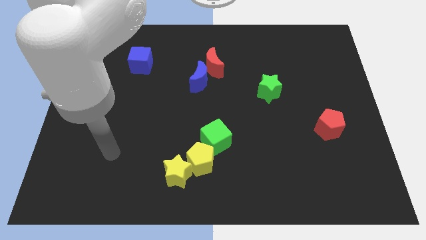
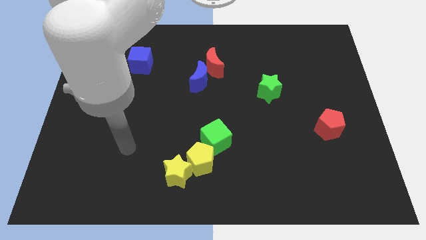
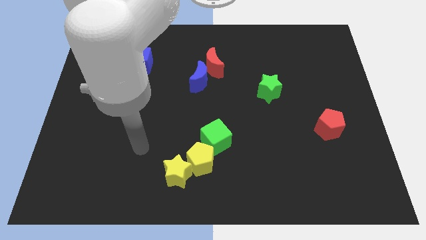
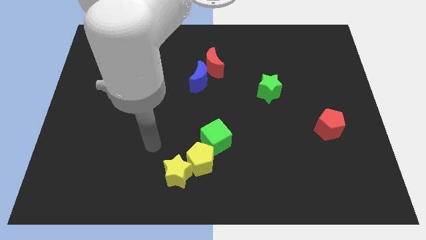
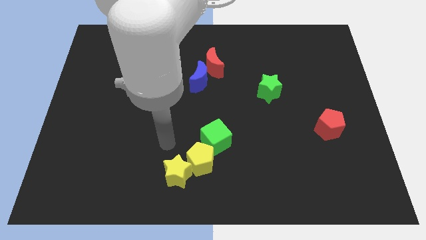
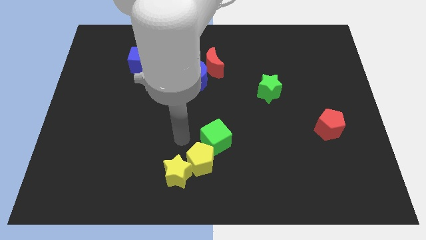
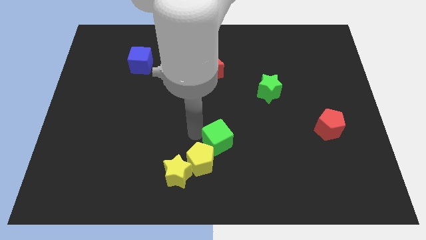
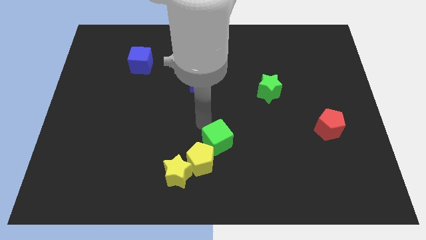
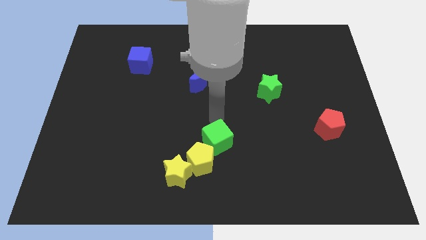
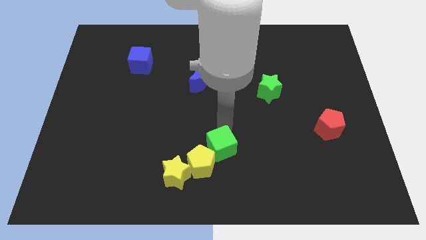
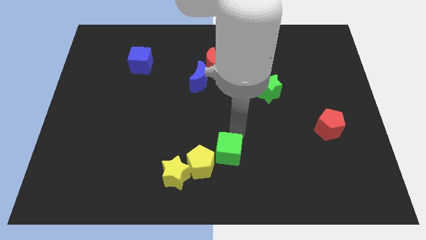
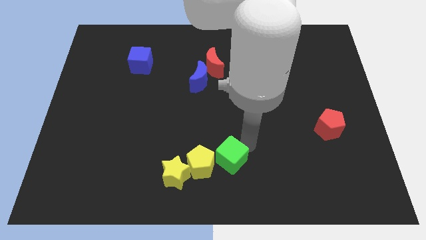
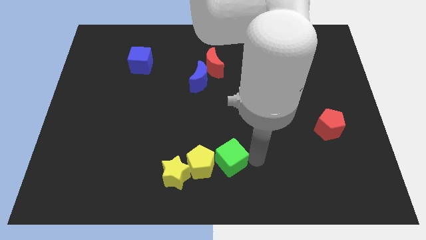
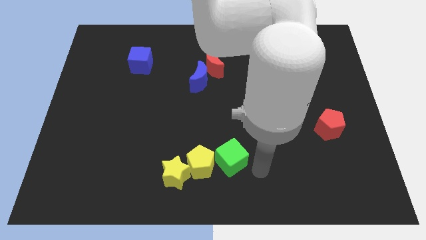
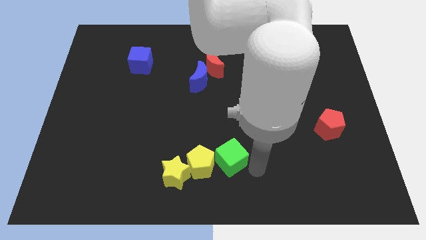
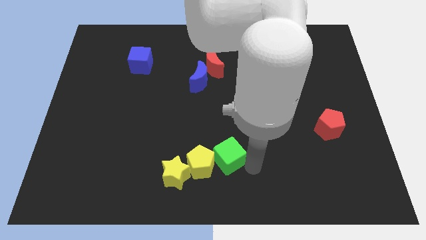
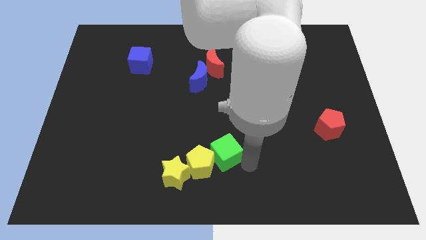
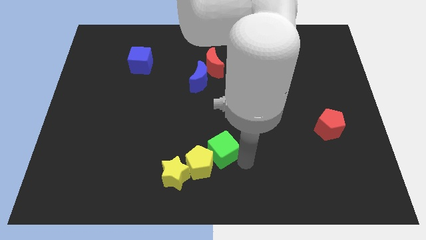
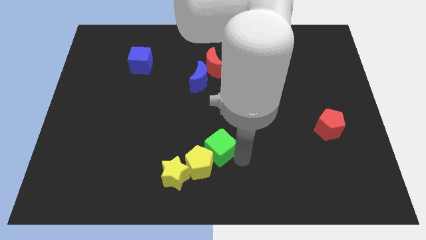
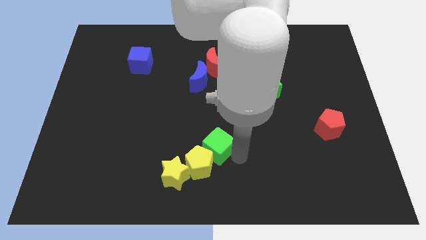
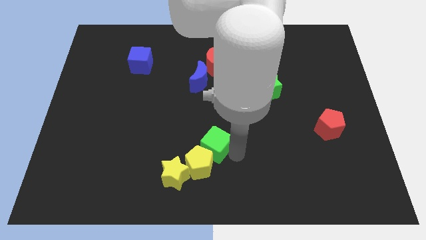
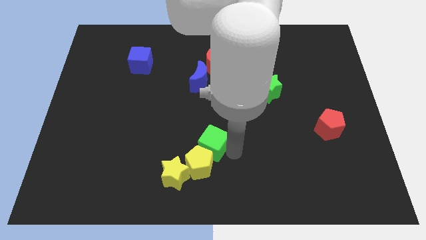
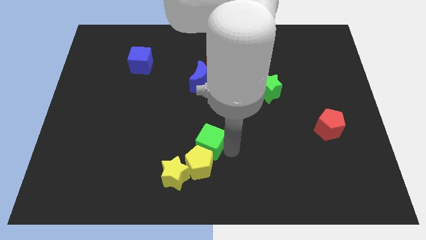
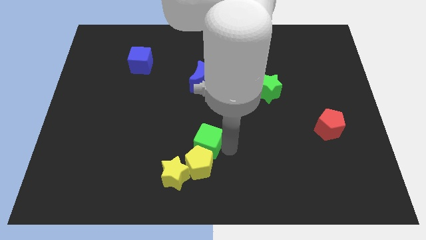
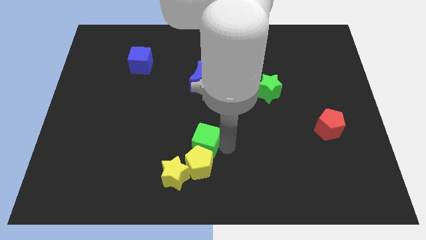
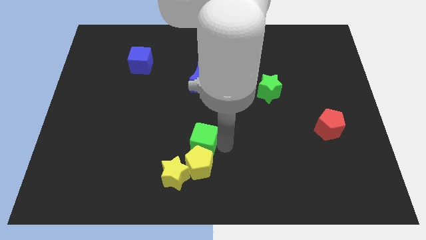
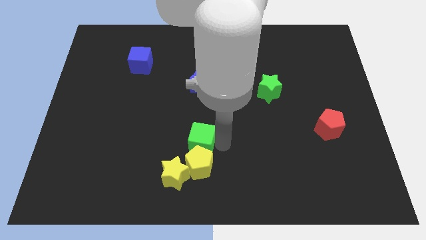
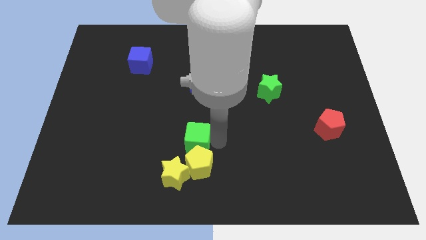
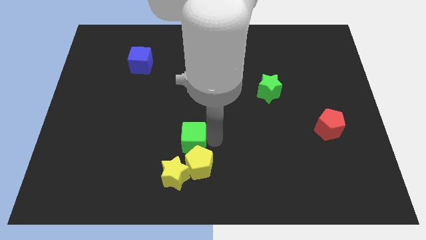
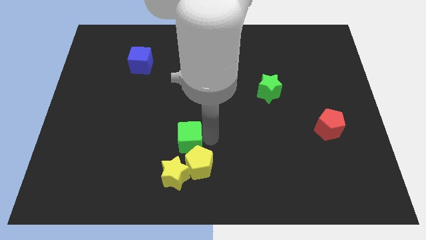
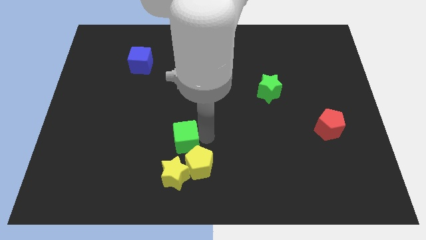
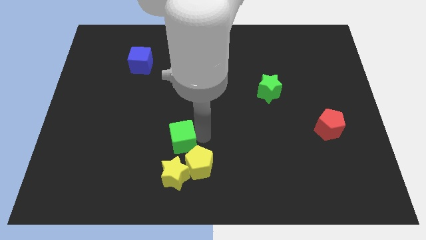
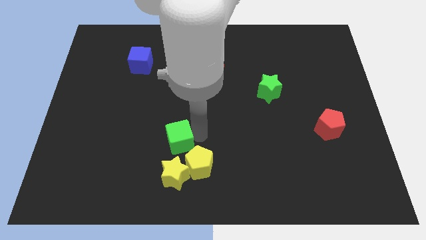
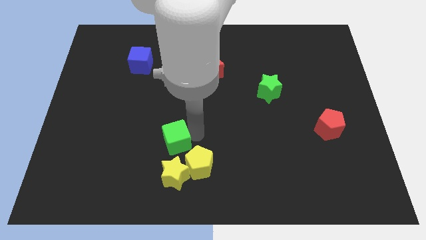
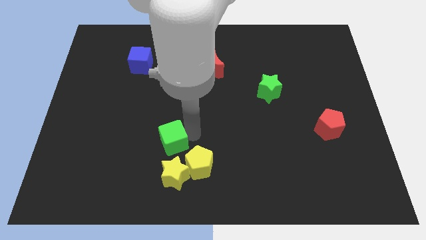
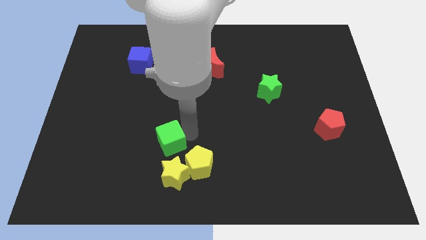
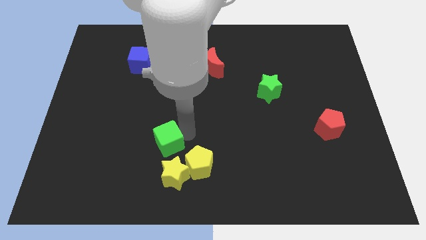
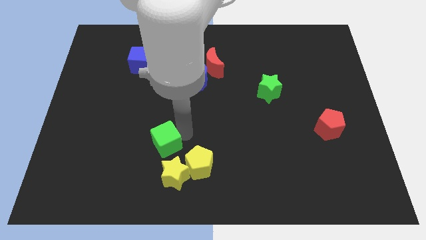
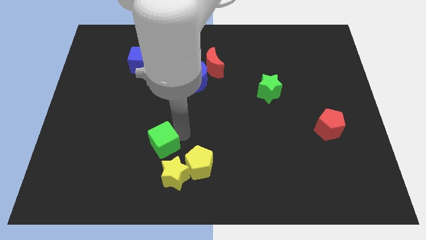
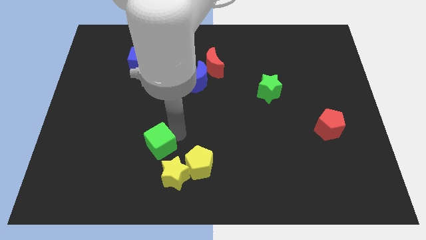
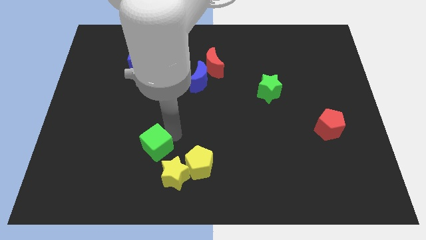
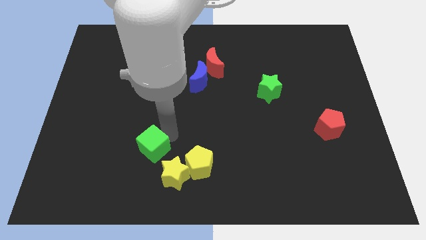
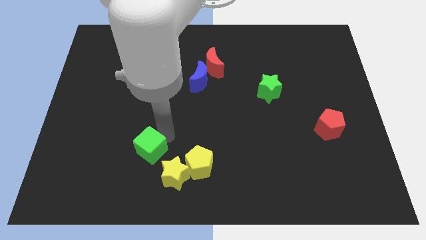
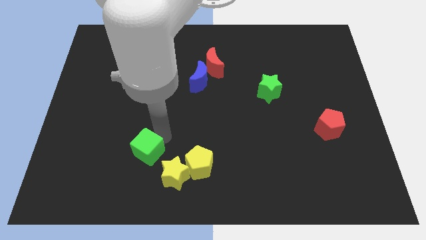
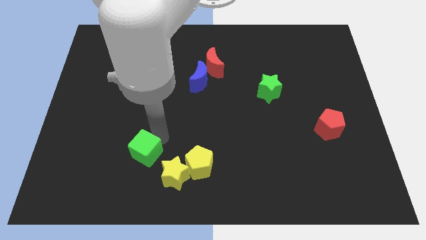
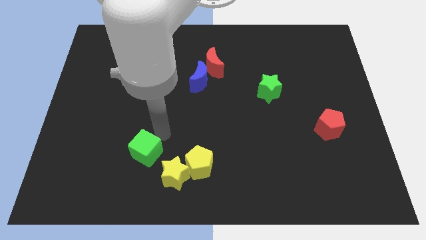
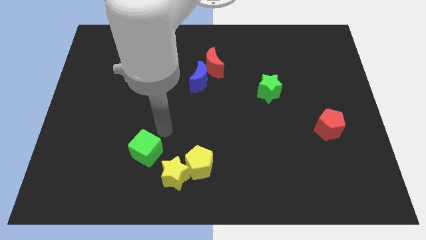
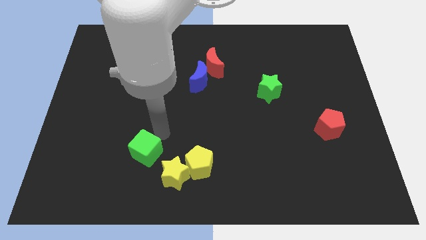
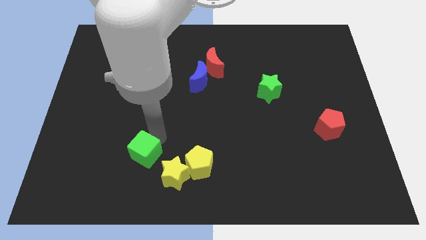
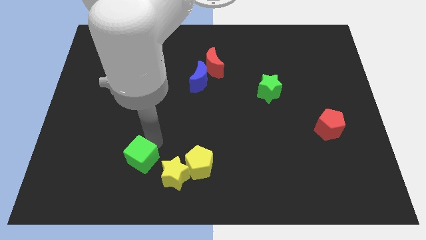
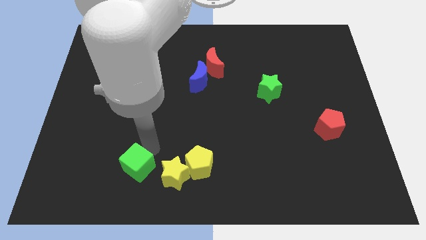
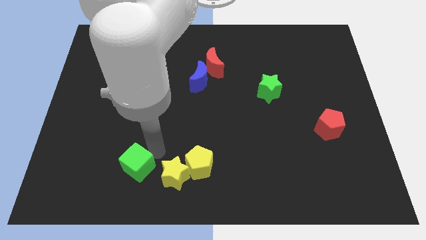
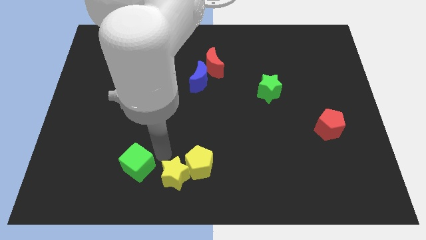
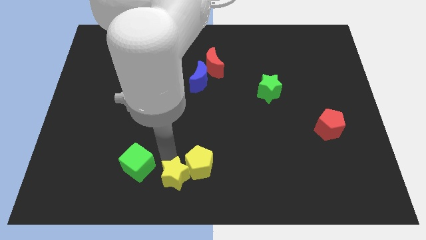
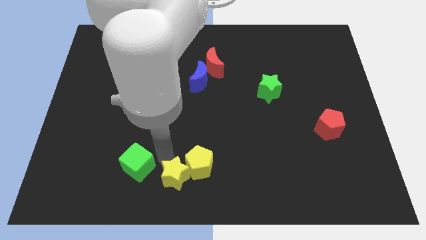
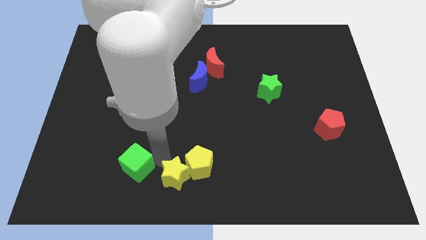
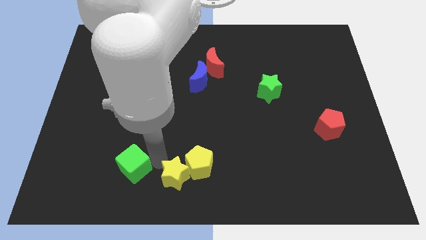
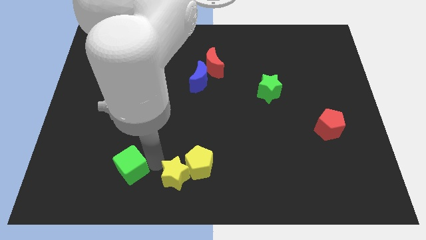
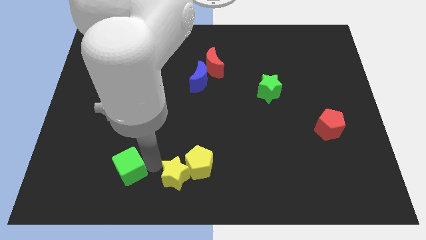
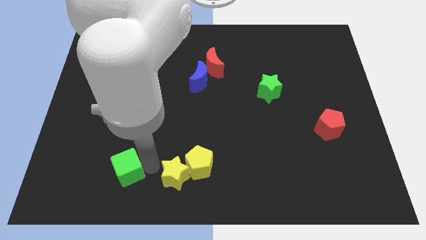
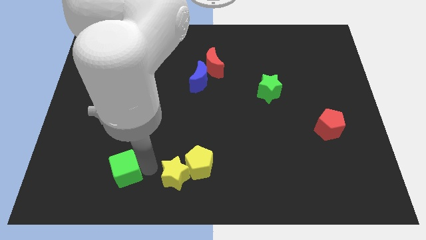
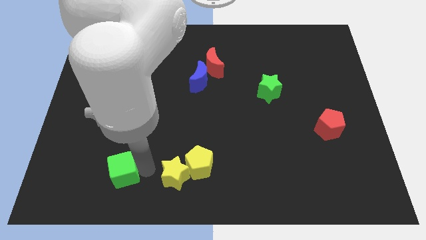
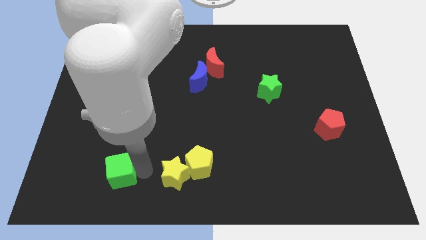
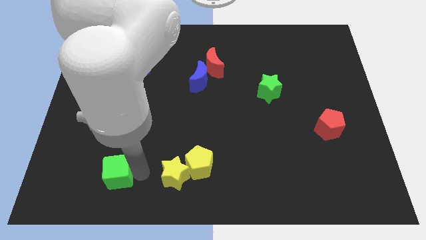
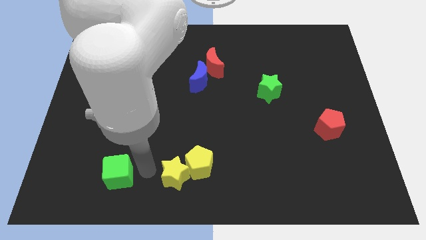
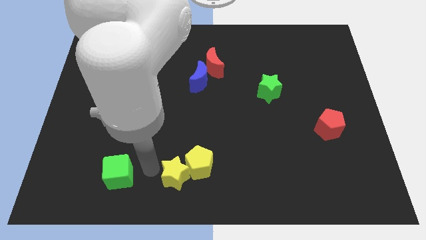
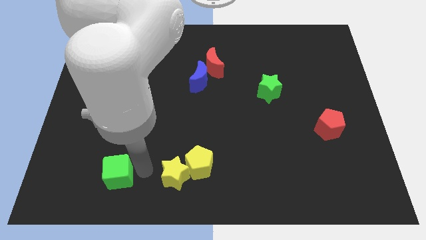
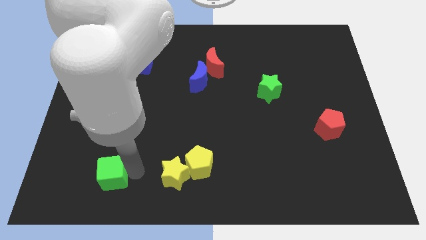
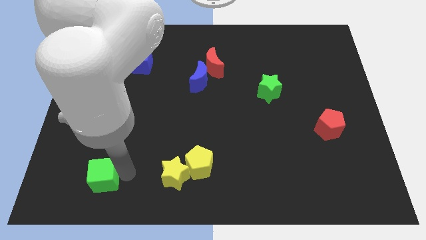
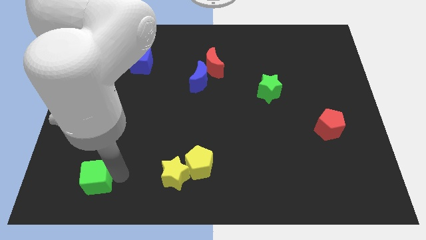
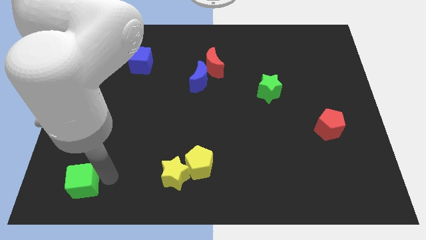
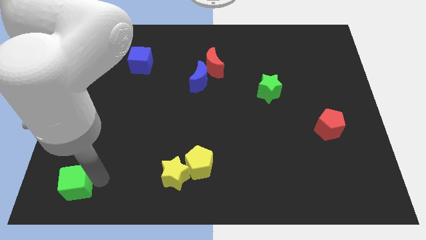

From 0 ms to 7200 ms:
push the green cube to the lower left corner

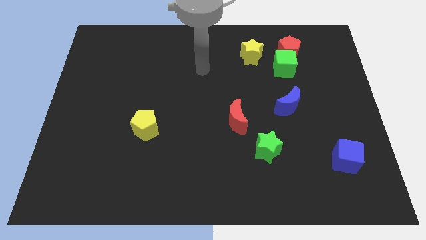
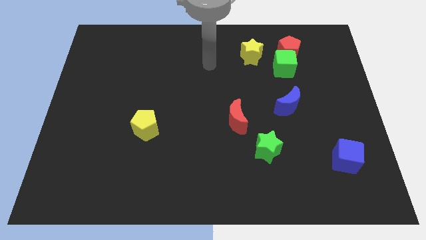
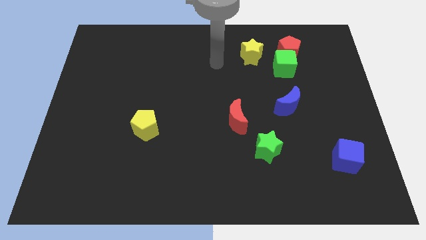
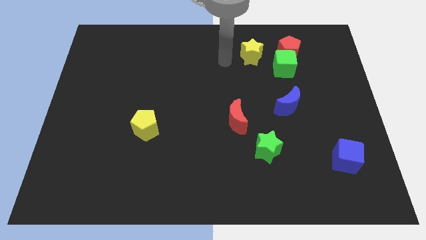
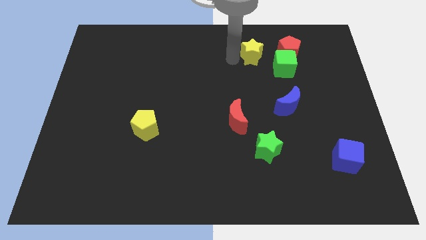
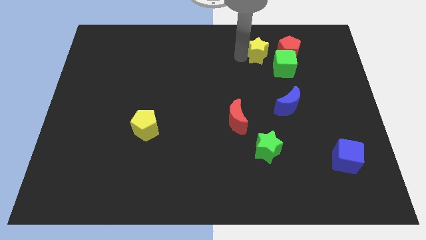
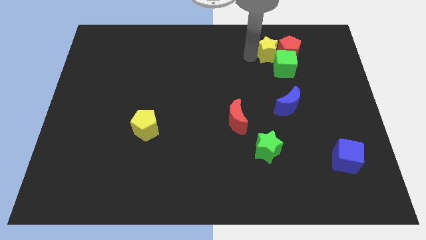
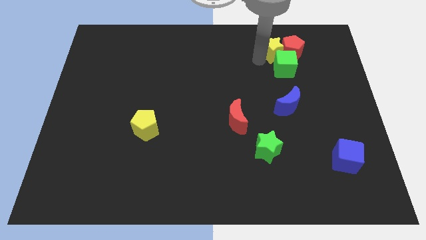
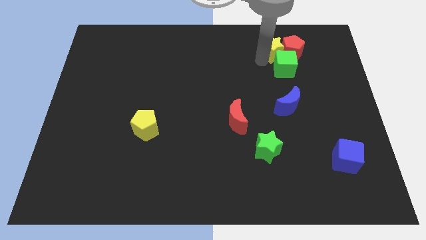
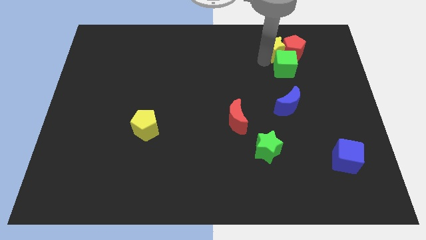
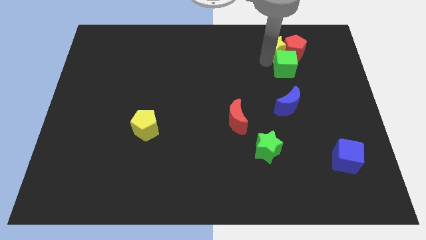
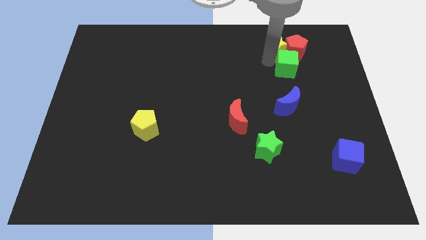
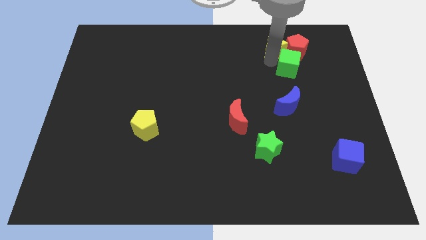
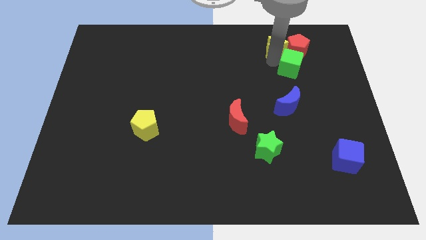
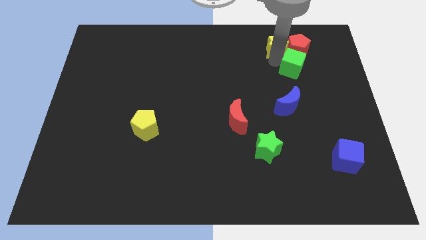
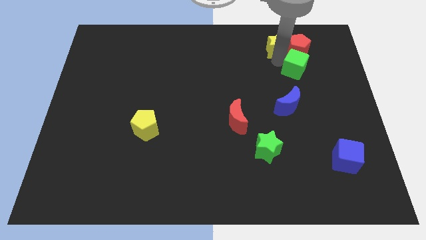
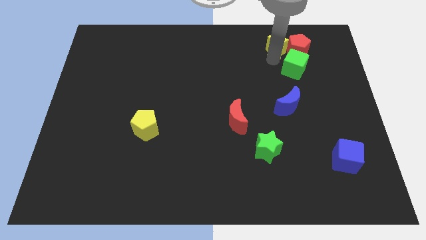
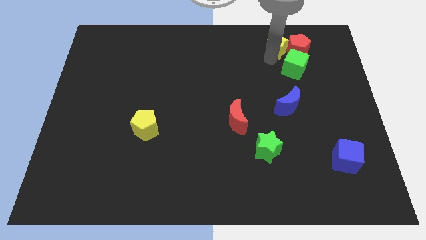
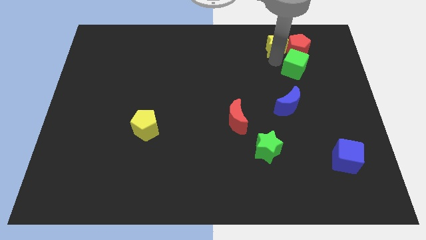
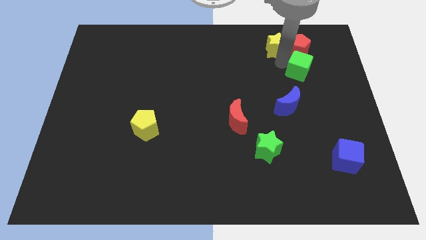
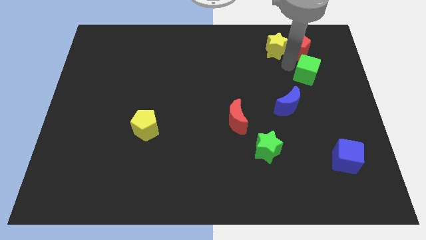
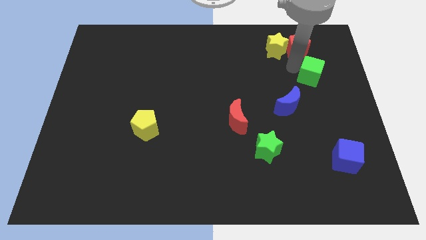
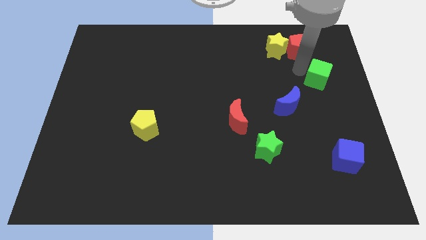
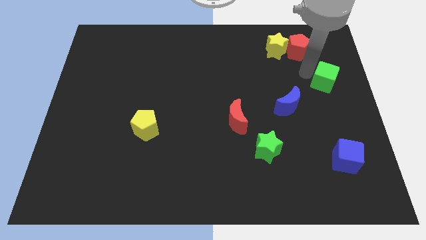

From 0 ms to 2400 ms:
push the green cube to the right side
